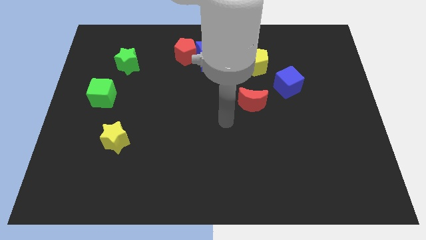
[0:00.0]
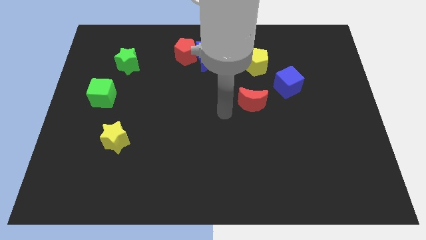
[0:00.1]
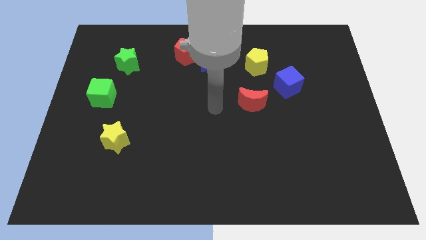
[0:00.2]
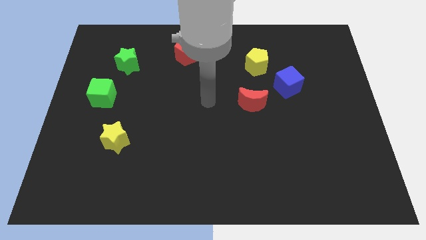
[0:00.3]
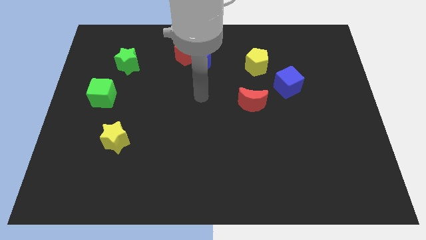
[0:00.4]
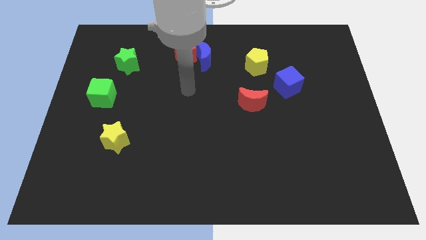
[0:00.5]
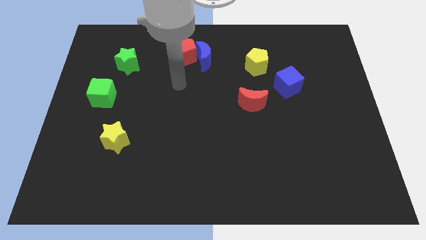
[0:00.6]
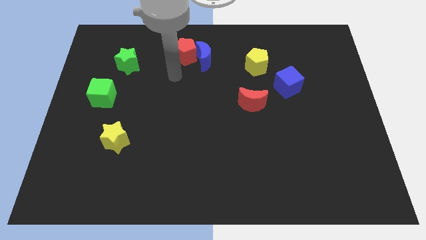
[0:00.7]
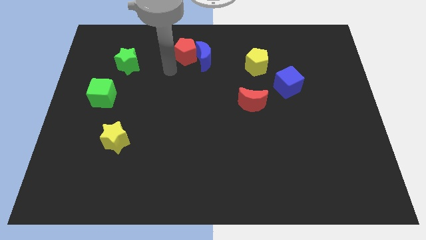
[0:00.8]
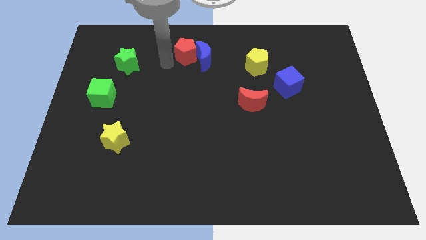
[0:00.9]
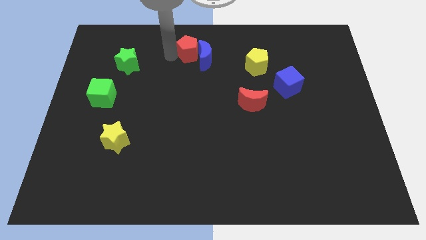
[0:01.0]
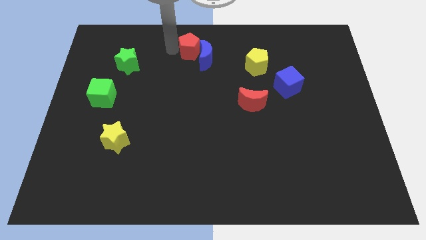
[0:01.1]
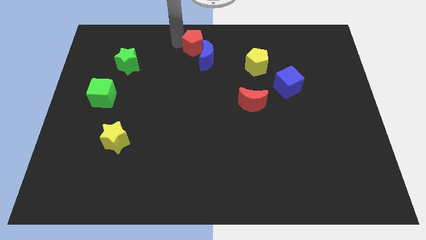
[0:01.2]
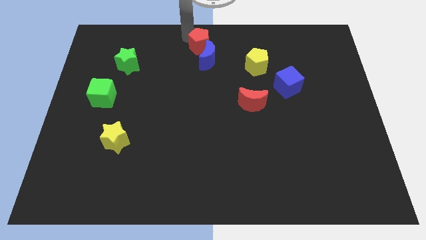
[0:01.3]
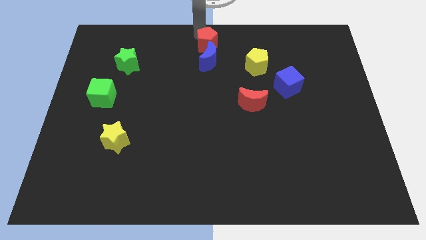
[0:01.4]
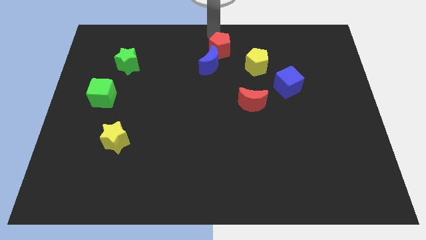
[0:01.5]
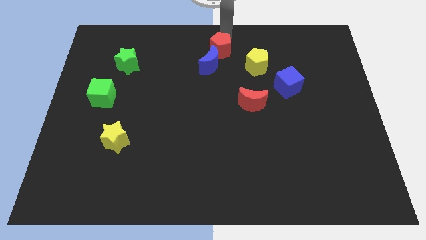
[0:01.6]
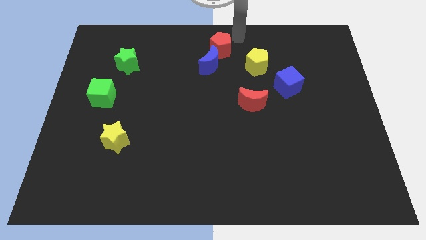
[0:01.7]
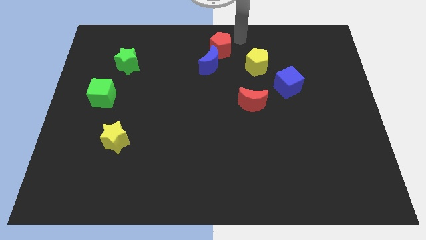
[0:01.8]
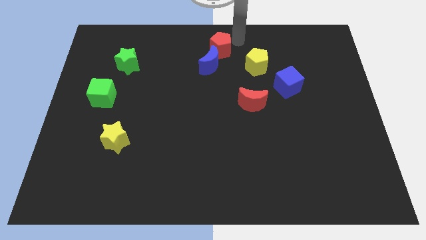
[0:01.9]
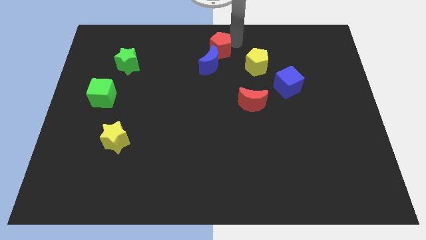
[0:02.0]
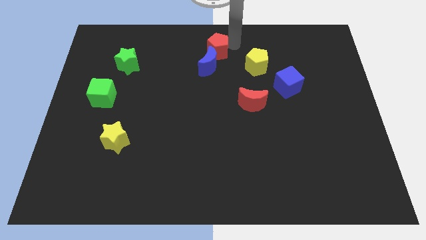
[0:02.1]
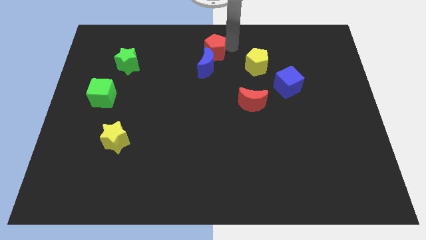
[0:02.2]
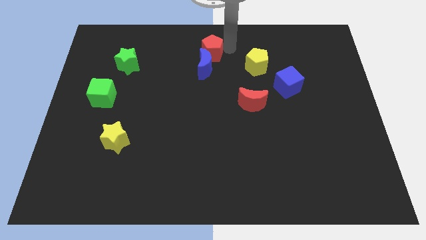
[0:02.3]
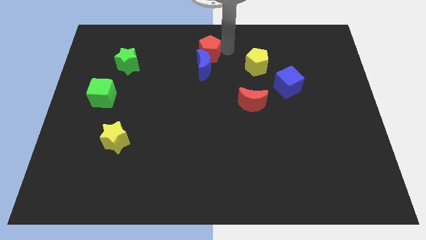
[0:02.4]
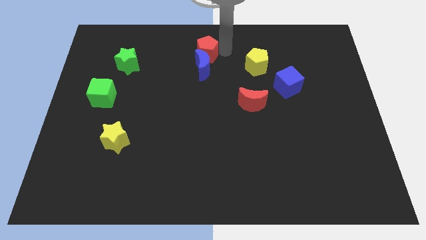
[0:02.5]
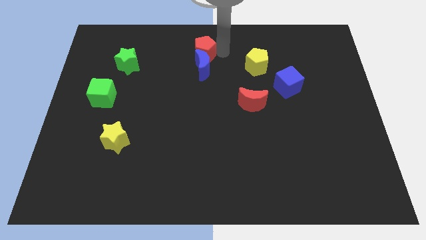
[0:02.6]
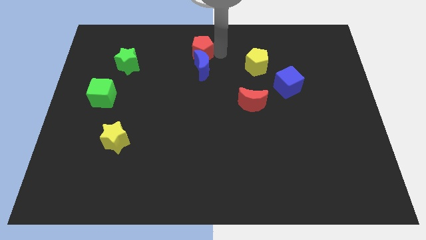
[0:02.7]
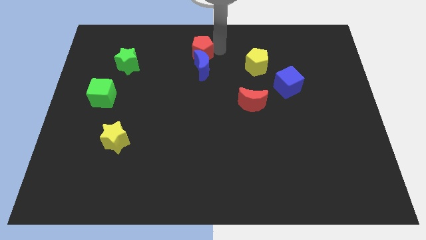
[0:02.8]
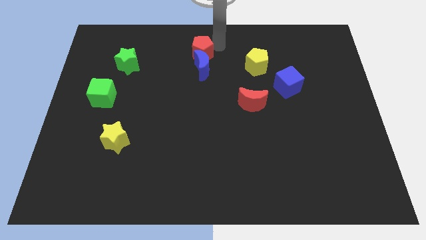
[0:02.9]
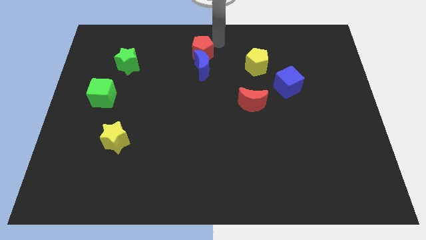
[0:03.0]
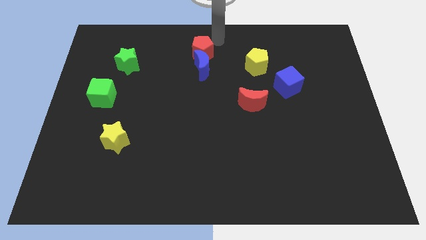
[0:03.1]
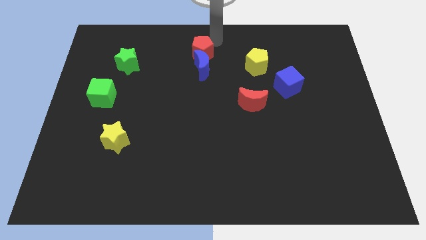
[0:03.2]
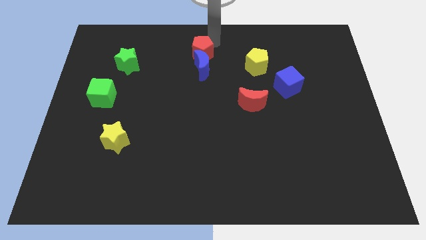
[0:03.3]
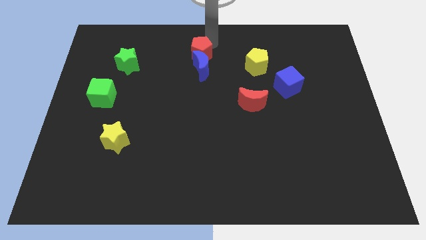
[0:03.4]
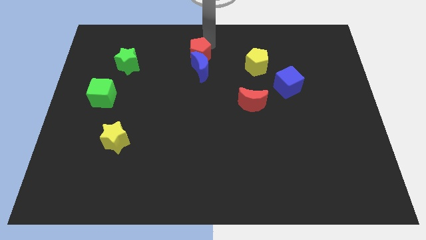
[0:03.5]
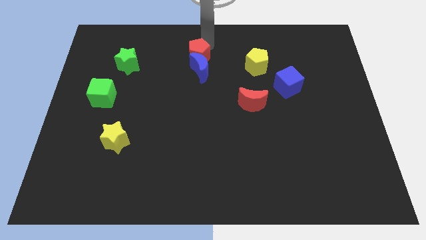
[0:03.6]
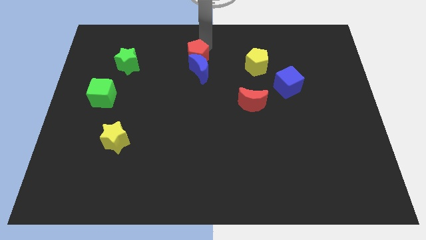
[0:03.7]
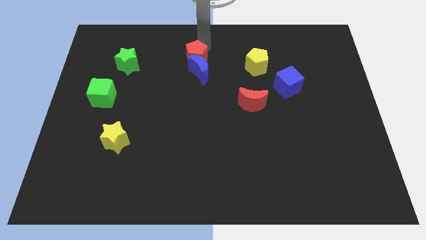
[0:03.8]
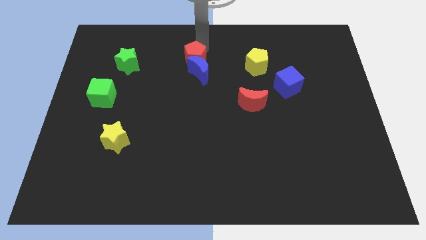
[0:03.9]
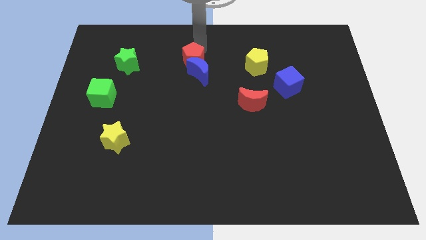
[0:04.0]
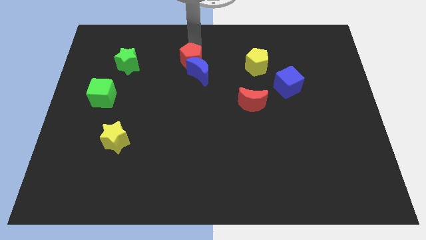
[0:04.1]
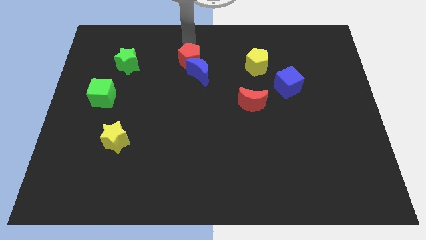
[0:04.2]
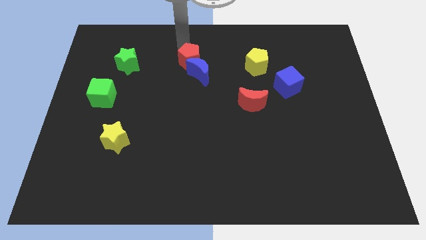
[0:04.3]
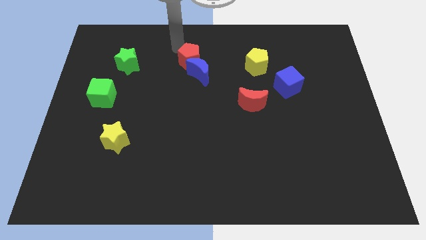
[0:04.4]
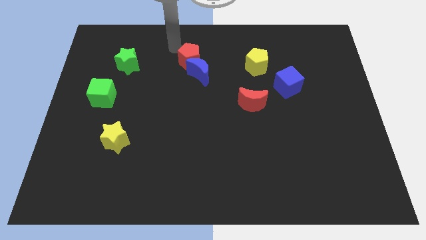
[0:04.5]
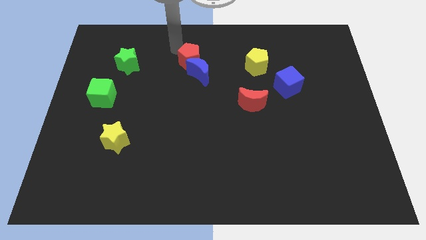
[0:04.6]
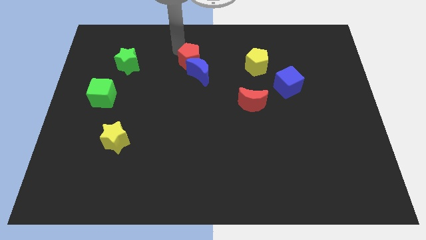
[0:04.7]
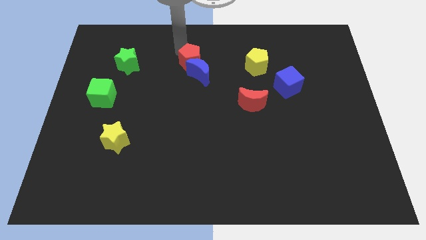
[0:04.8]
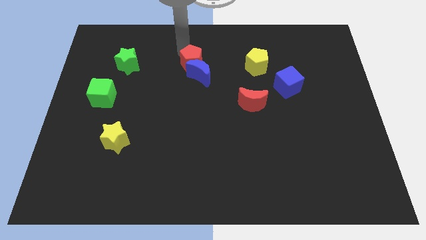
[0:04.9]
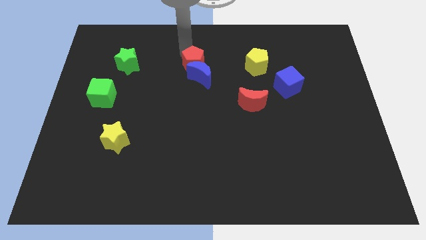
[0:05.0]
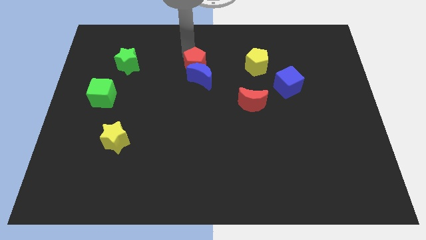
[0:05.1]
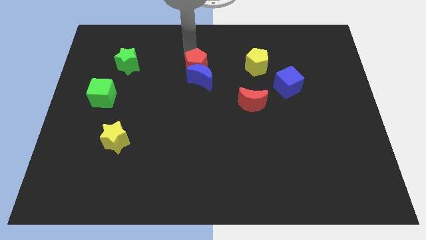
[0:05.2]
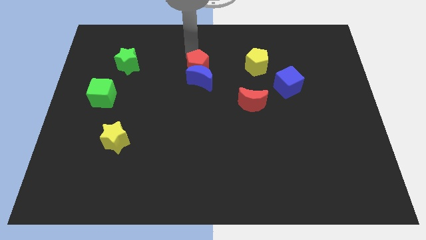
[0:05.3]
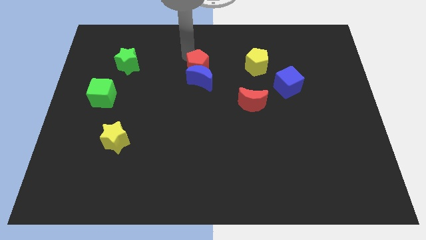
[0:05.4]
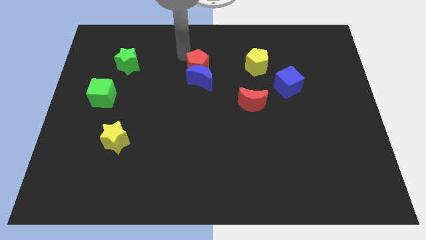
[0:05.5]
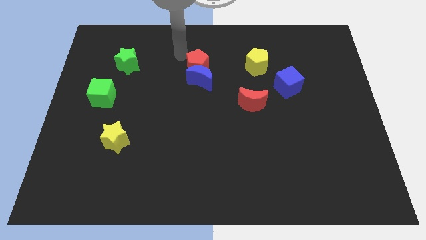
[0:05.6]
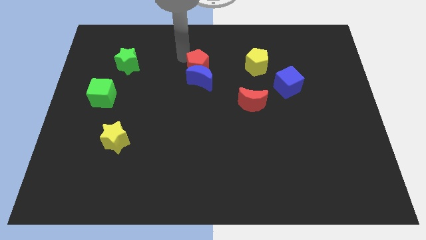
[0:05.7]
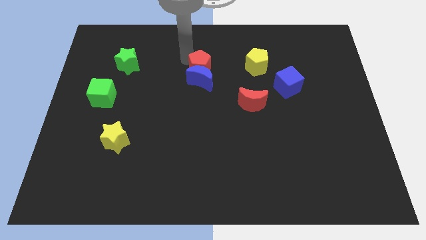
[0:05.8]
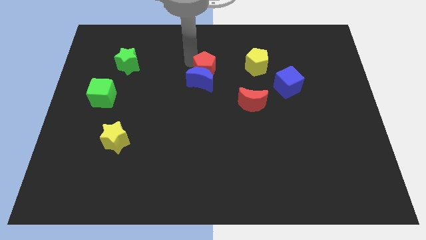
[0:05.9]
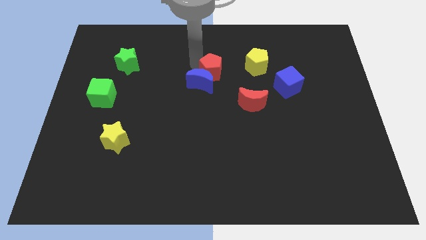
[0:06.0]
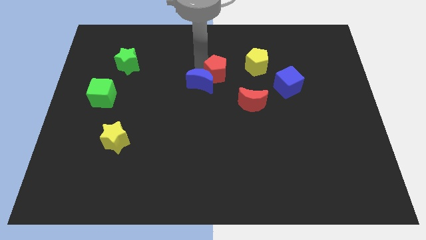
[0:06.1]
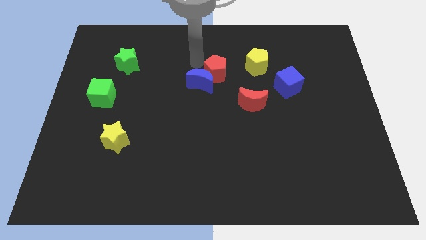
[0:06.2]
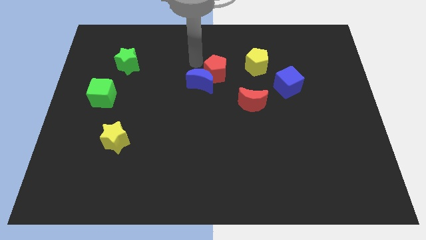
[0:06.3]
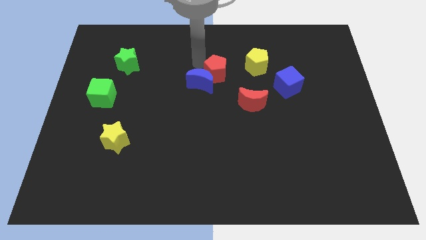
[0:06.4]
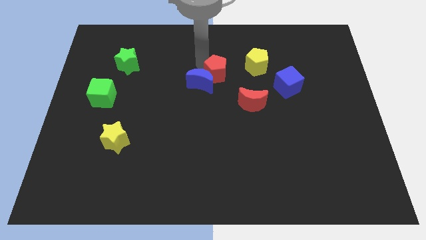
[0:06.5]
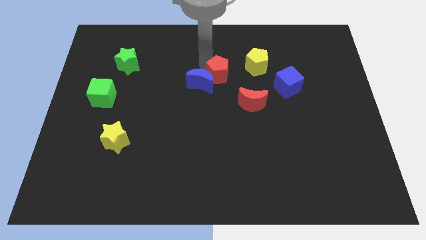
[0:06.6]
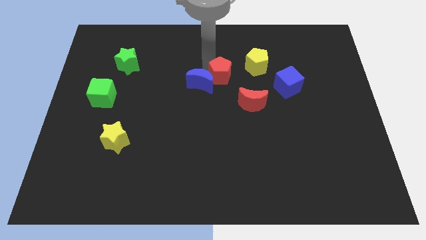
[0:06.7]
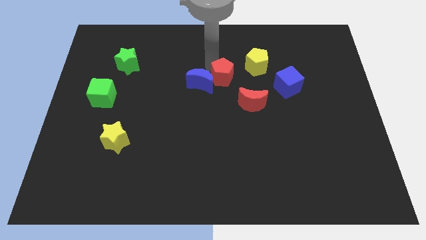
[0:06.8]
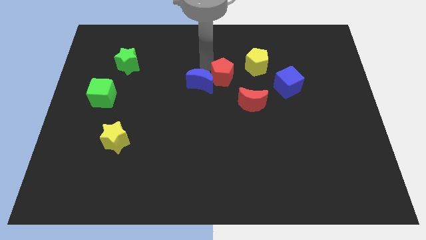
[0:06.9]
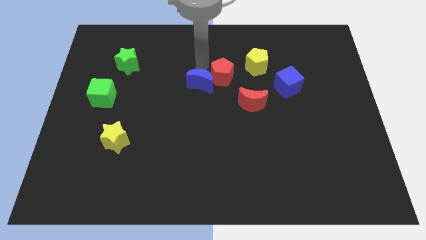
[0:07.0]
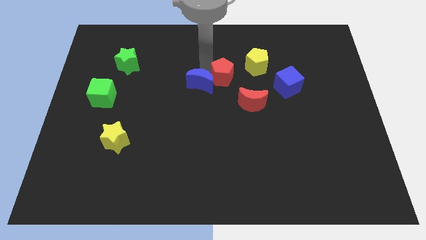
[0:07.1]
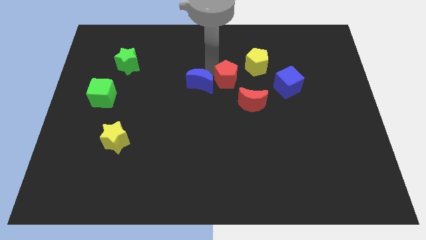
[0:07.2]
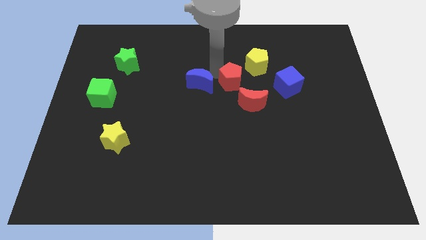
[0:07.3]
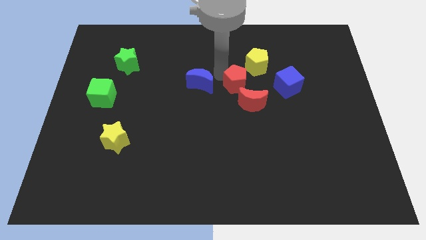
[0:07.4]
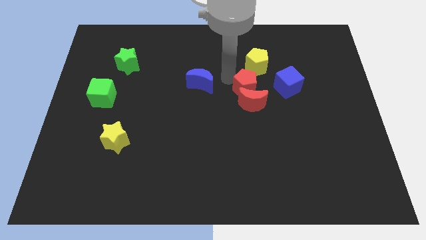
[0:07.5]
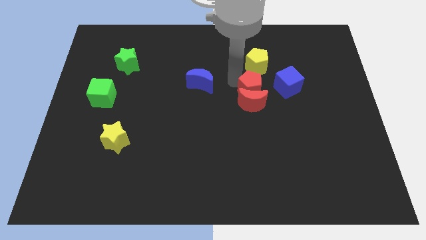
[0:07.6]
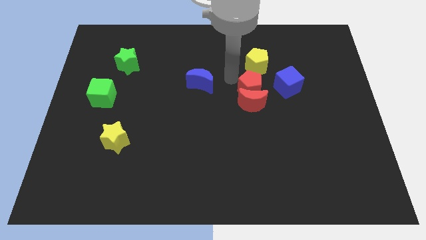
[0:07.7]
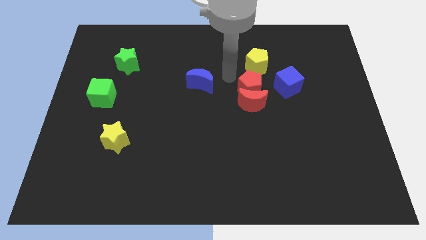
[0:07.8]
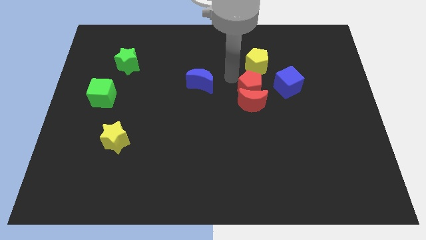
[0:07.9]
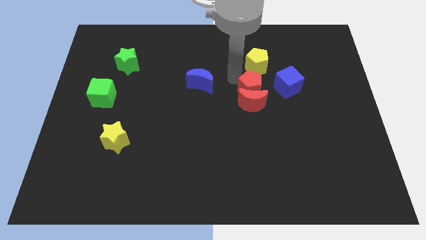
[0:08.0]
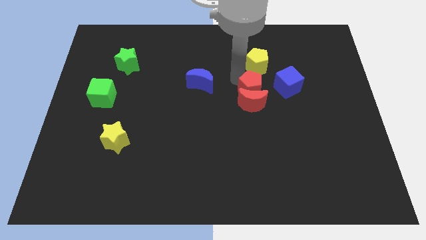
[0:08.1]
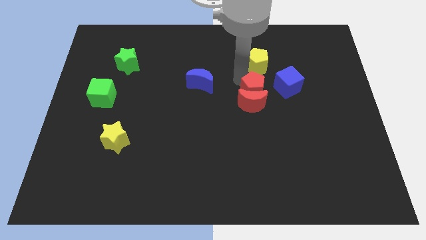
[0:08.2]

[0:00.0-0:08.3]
move the red pentagon down and to the right diagonally
